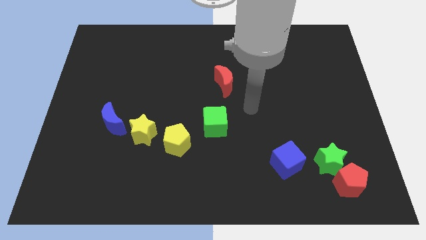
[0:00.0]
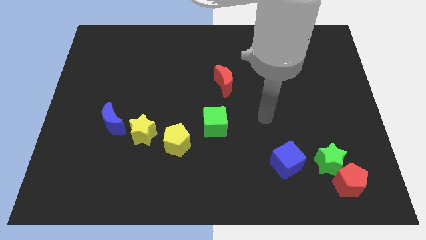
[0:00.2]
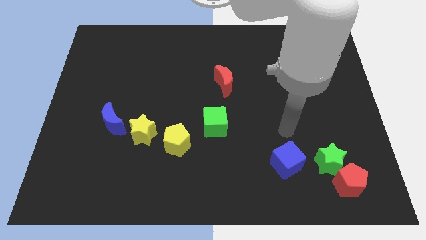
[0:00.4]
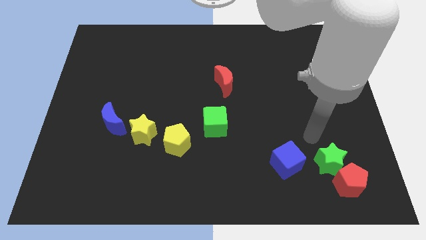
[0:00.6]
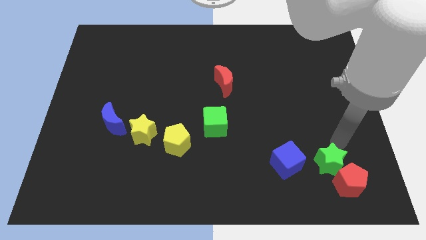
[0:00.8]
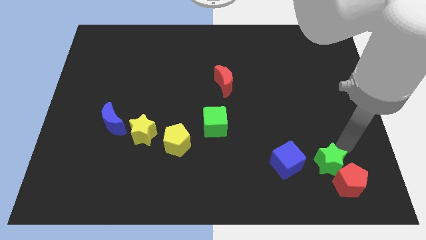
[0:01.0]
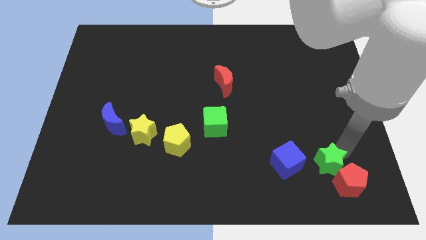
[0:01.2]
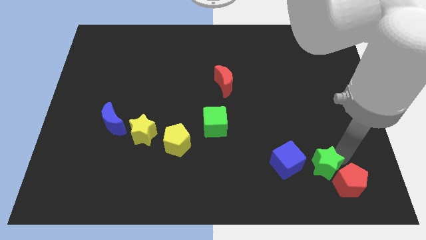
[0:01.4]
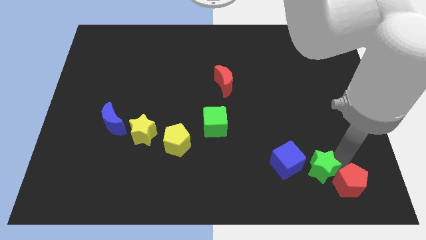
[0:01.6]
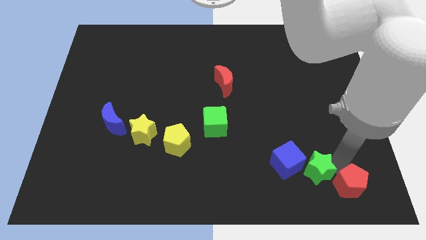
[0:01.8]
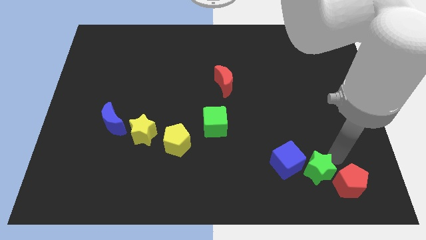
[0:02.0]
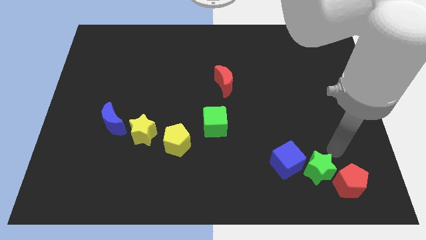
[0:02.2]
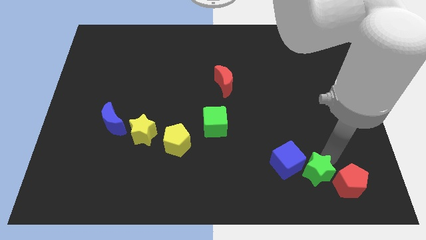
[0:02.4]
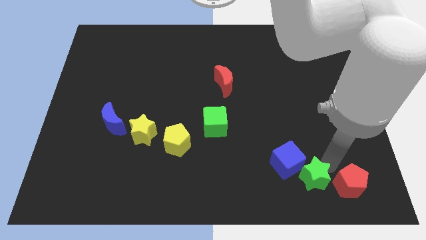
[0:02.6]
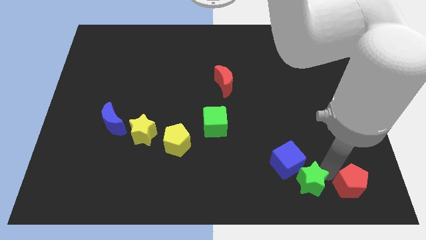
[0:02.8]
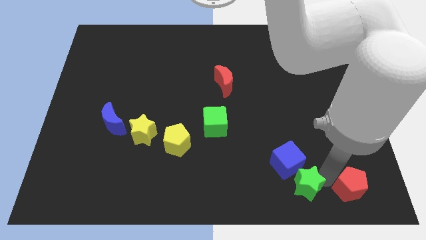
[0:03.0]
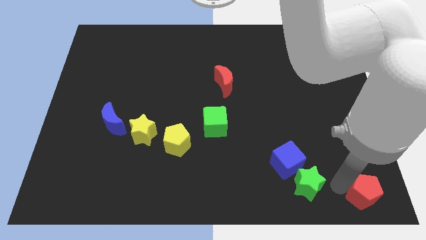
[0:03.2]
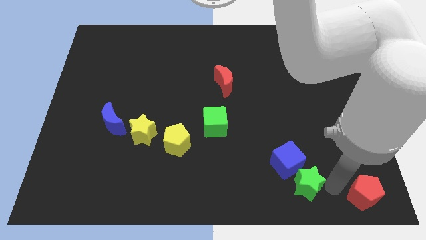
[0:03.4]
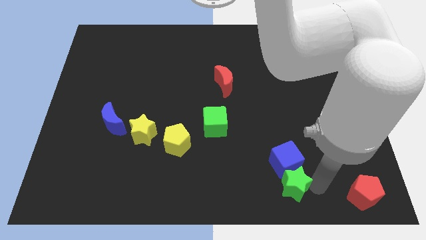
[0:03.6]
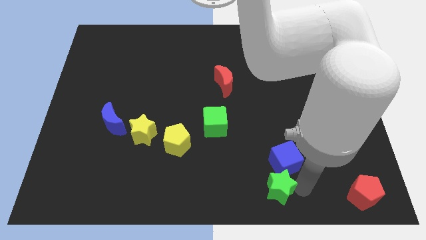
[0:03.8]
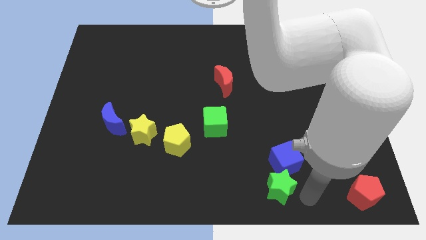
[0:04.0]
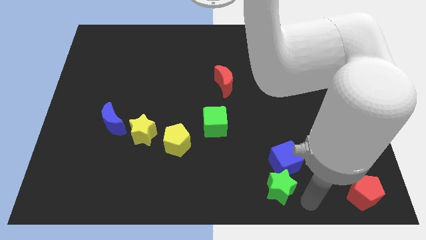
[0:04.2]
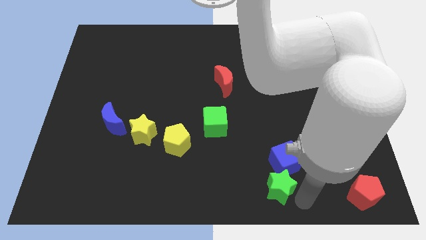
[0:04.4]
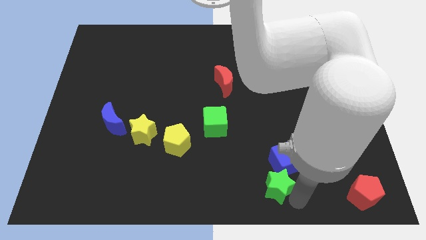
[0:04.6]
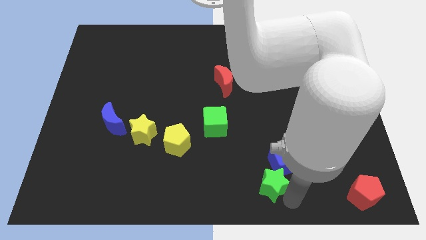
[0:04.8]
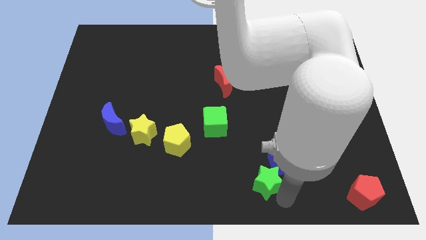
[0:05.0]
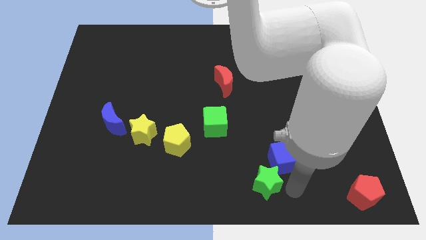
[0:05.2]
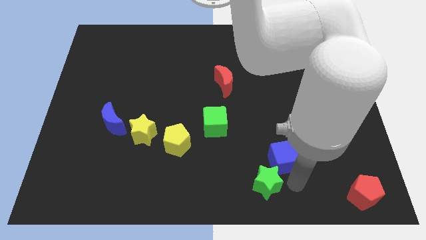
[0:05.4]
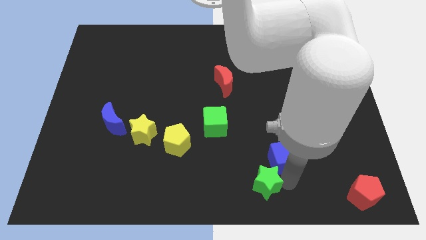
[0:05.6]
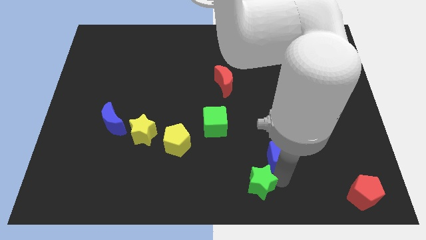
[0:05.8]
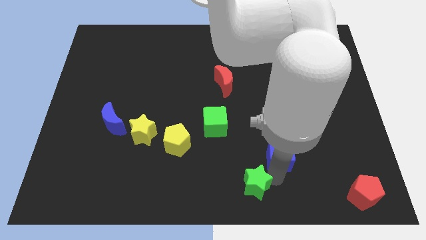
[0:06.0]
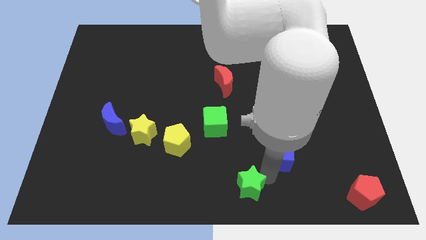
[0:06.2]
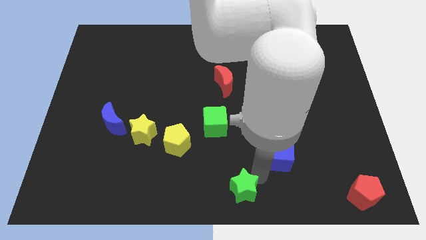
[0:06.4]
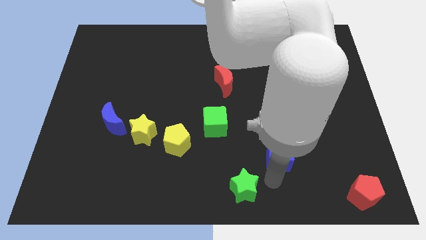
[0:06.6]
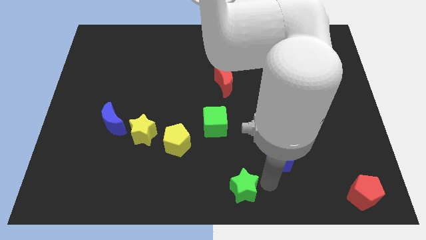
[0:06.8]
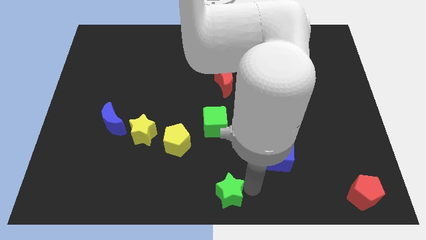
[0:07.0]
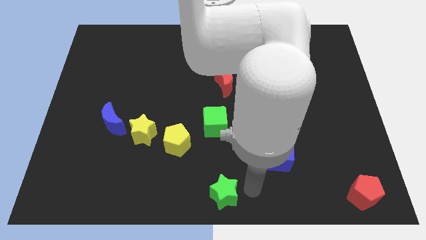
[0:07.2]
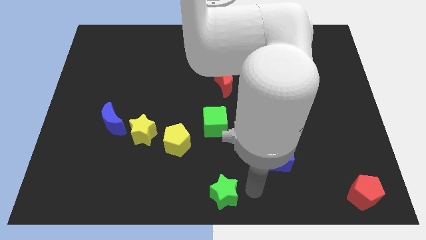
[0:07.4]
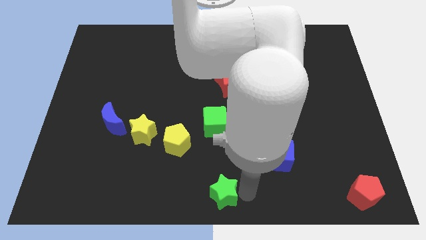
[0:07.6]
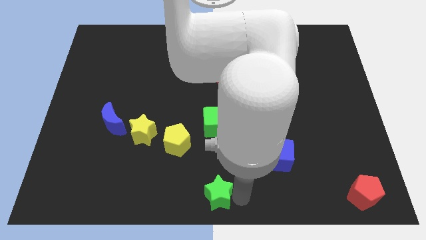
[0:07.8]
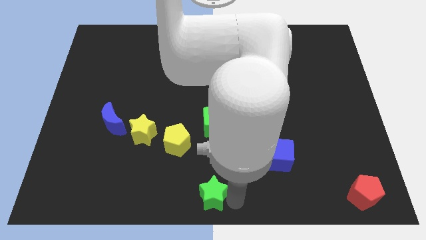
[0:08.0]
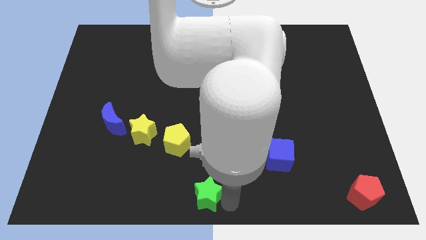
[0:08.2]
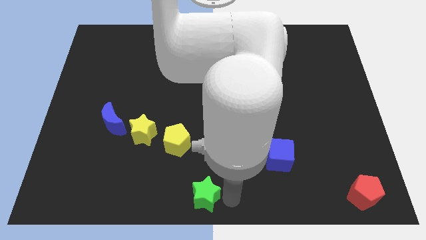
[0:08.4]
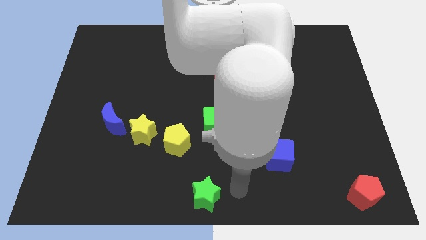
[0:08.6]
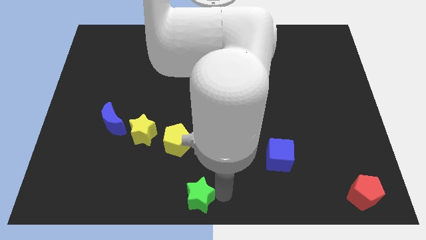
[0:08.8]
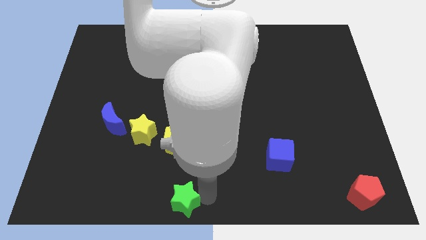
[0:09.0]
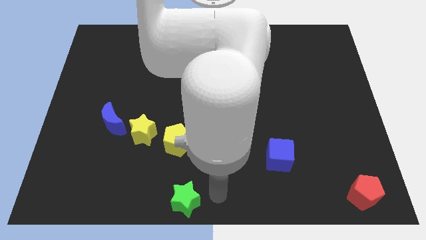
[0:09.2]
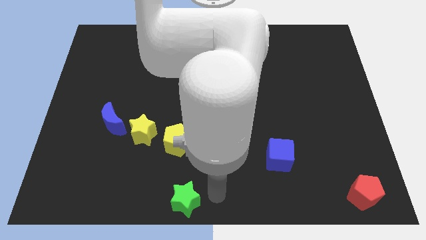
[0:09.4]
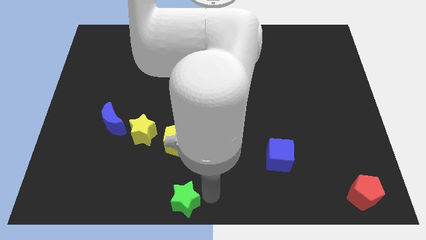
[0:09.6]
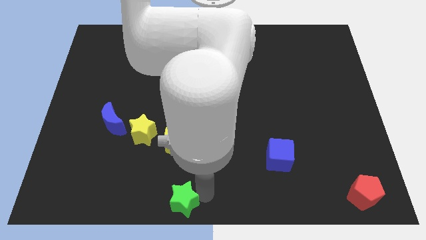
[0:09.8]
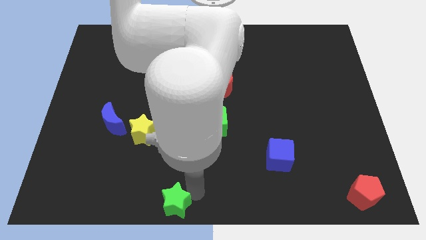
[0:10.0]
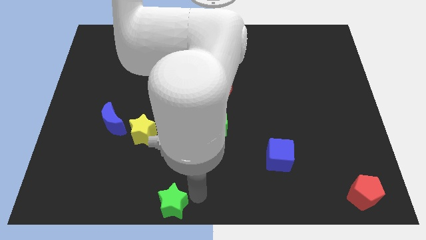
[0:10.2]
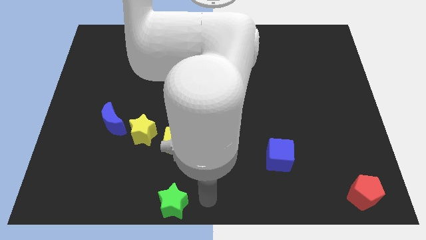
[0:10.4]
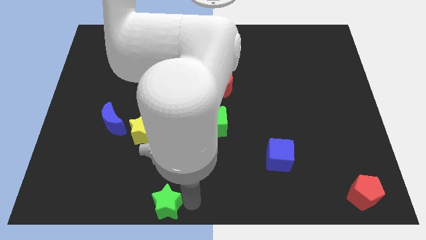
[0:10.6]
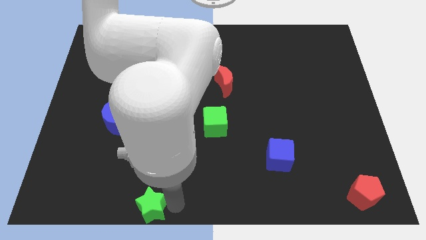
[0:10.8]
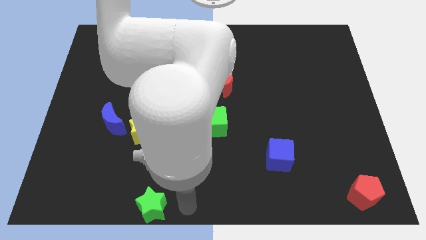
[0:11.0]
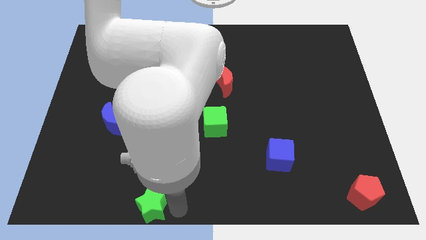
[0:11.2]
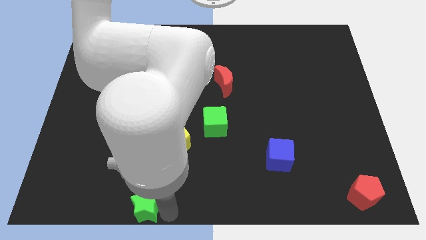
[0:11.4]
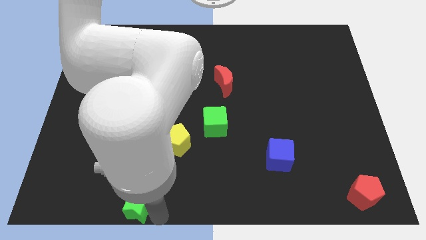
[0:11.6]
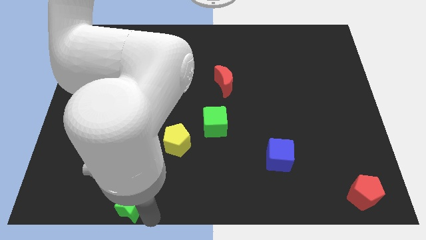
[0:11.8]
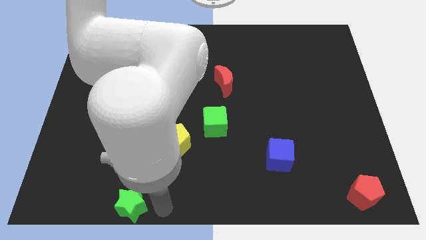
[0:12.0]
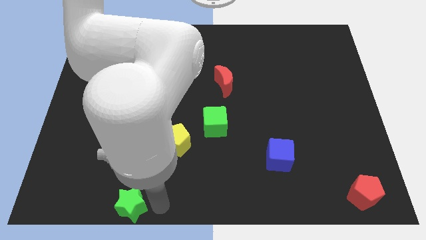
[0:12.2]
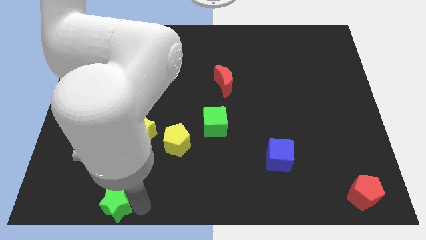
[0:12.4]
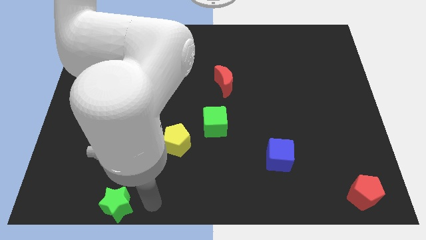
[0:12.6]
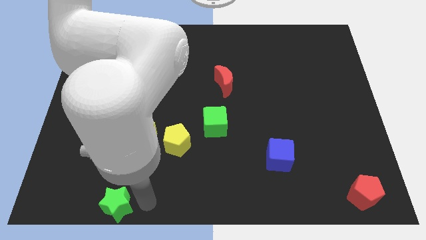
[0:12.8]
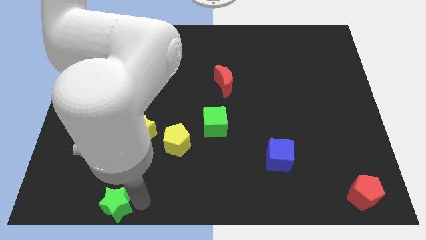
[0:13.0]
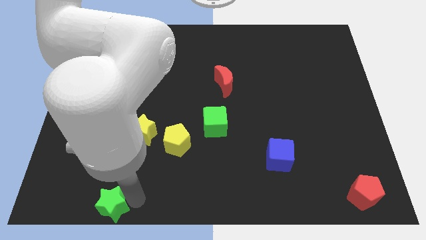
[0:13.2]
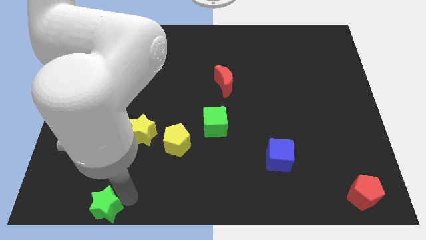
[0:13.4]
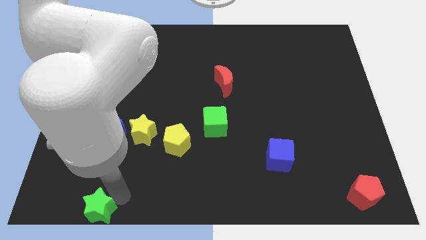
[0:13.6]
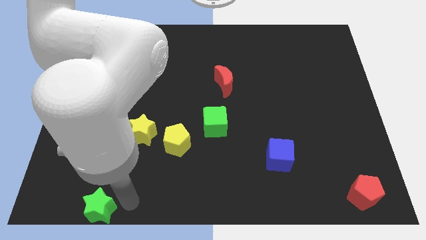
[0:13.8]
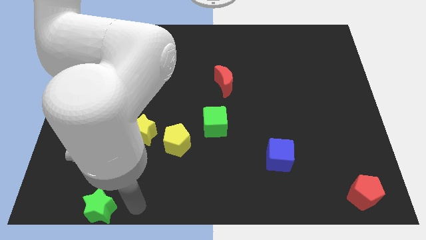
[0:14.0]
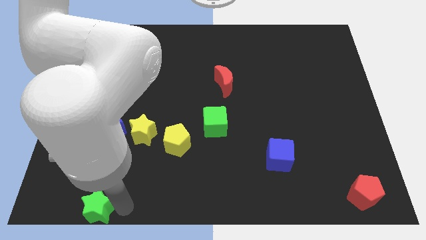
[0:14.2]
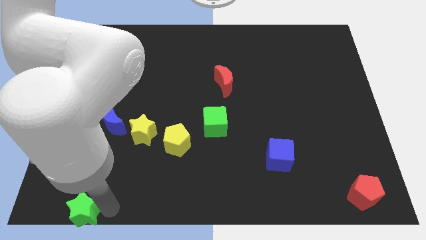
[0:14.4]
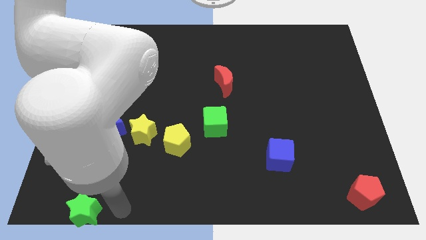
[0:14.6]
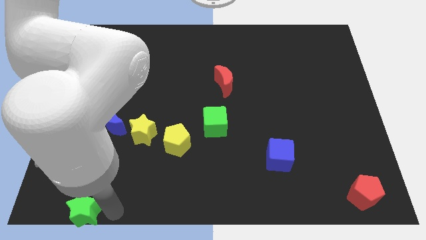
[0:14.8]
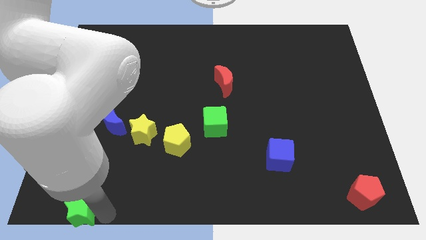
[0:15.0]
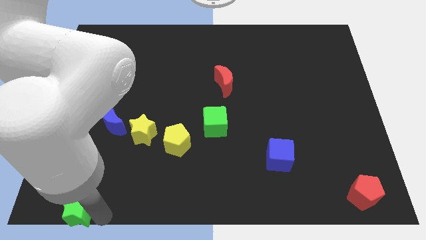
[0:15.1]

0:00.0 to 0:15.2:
push the green star to the bottom left corner
